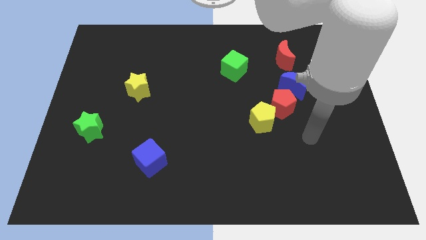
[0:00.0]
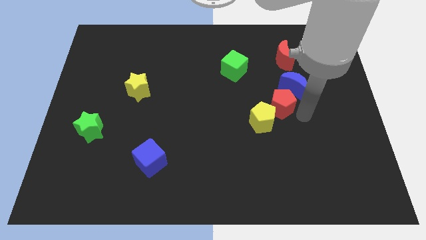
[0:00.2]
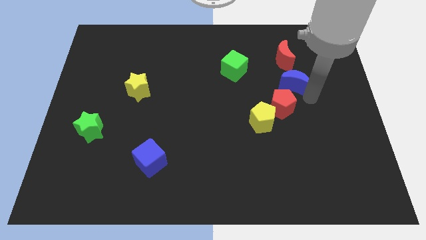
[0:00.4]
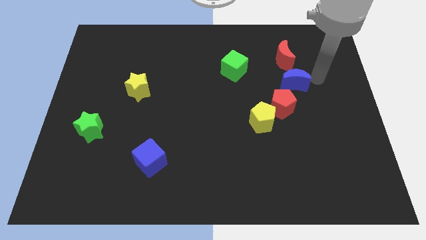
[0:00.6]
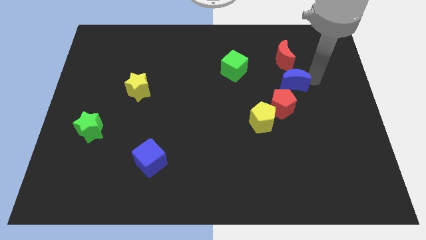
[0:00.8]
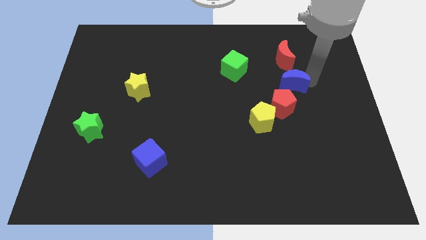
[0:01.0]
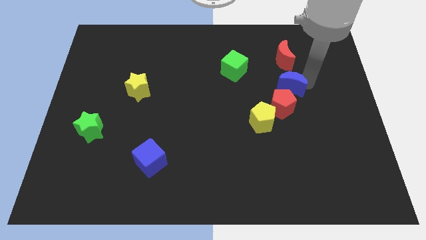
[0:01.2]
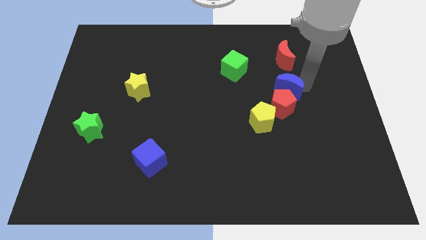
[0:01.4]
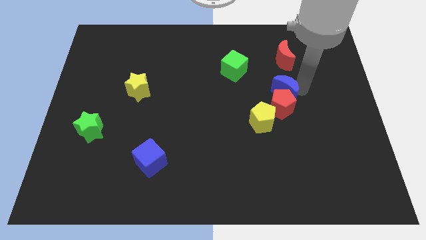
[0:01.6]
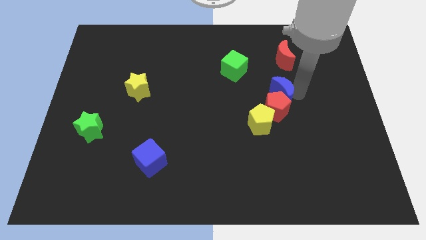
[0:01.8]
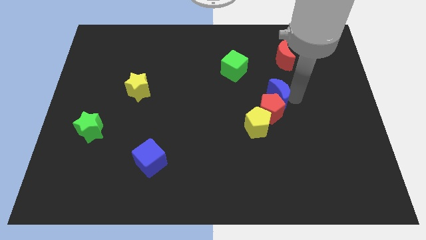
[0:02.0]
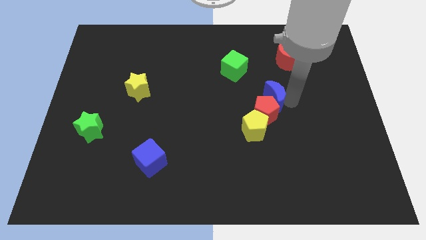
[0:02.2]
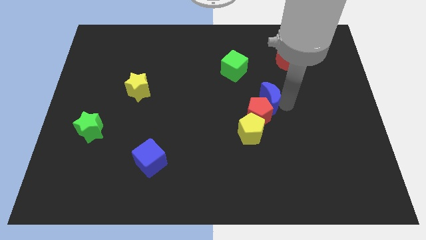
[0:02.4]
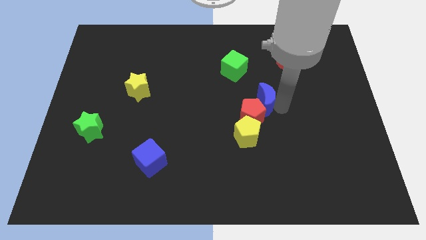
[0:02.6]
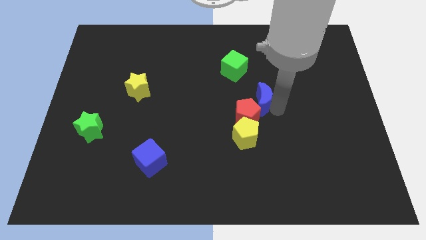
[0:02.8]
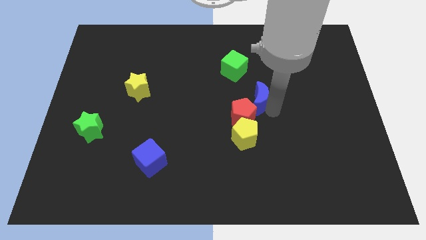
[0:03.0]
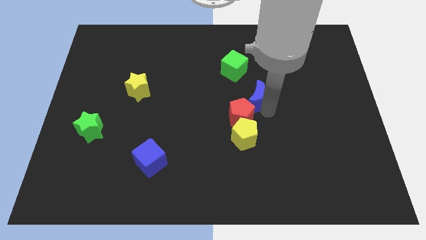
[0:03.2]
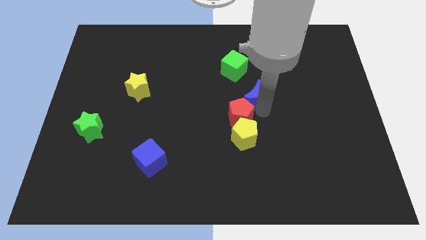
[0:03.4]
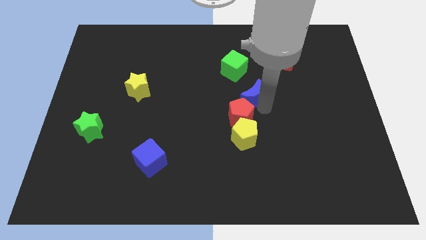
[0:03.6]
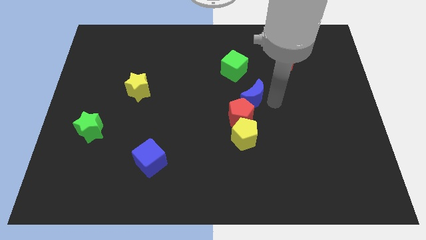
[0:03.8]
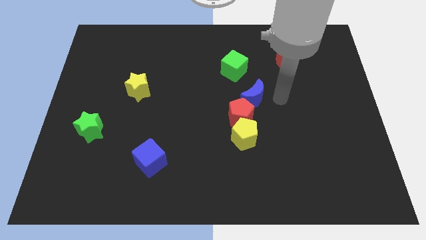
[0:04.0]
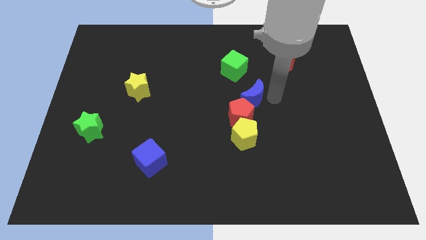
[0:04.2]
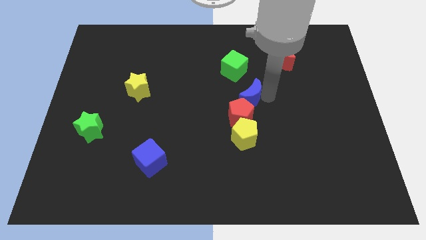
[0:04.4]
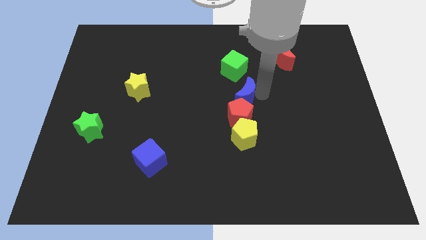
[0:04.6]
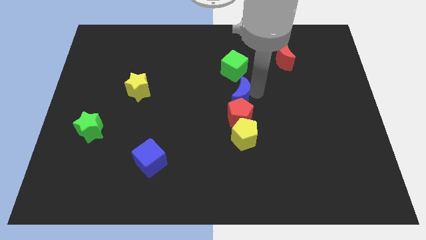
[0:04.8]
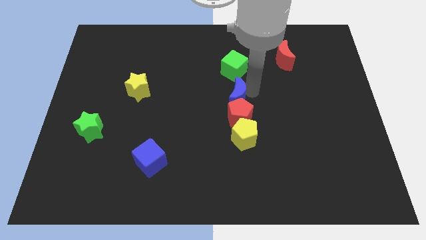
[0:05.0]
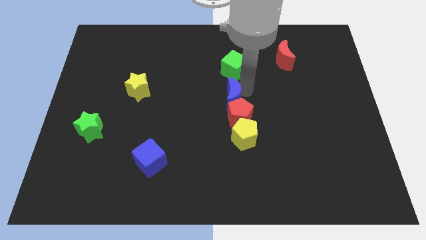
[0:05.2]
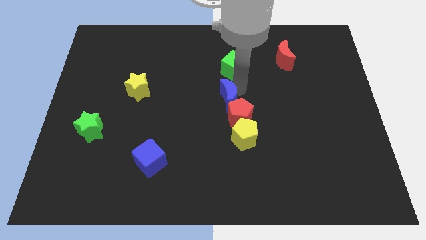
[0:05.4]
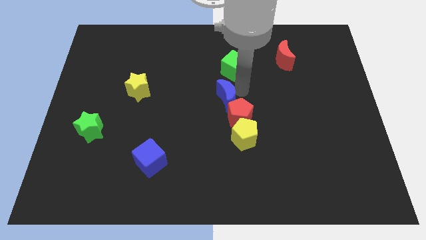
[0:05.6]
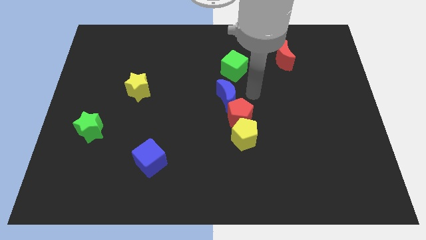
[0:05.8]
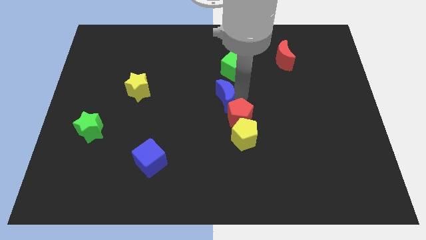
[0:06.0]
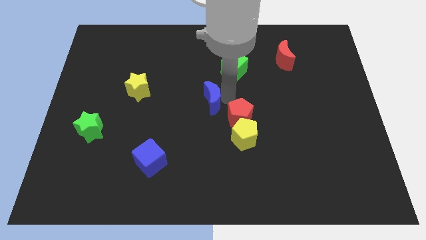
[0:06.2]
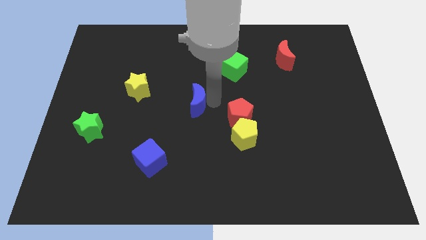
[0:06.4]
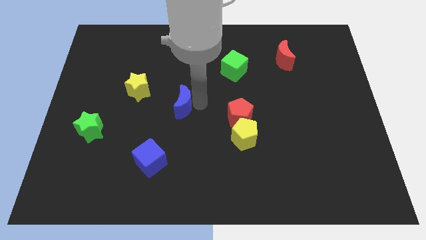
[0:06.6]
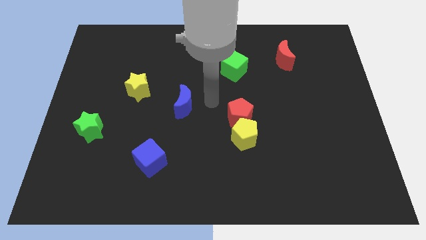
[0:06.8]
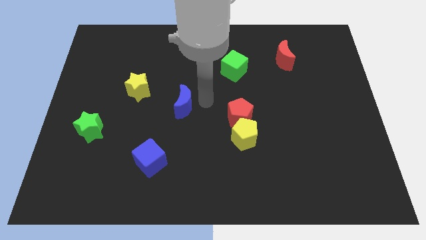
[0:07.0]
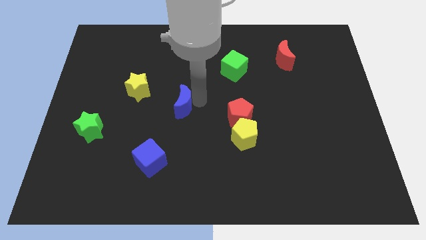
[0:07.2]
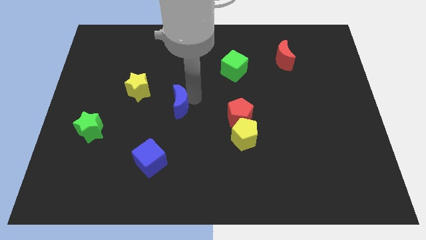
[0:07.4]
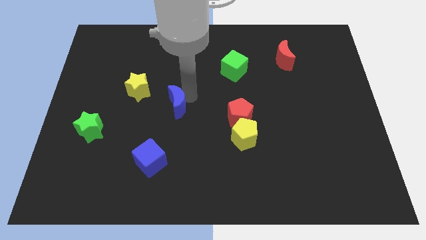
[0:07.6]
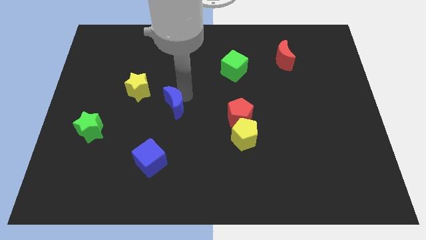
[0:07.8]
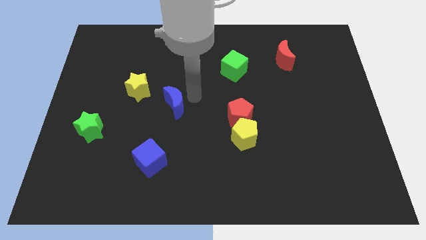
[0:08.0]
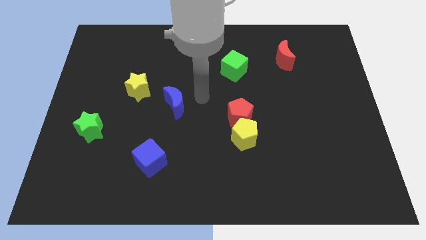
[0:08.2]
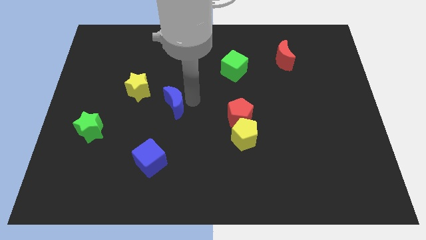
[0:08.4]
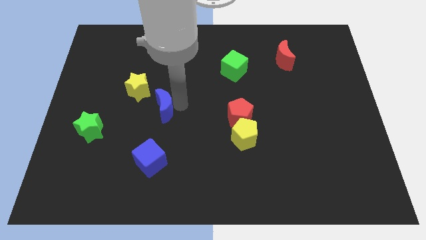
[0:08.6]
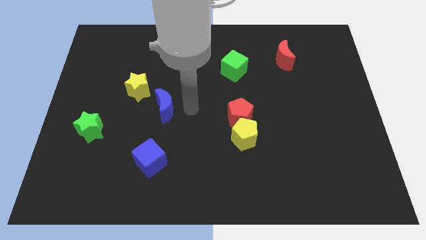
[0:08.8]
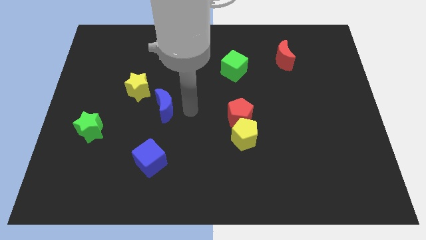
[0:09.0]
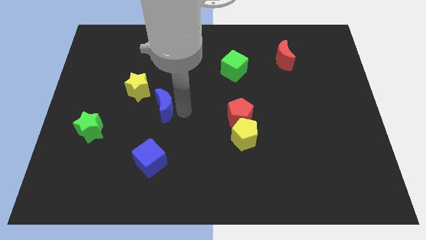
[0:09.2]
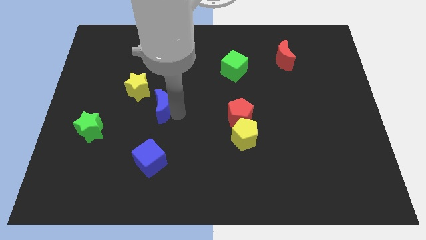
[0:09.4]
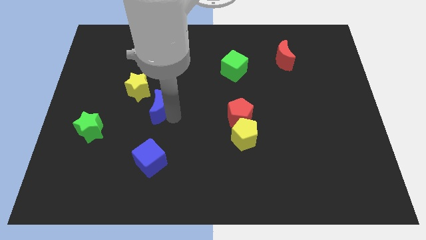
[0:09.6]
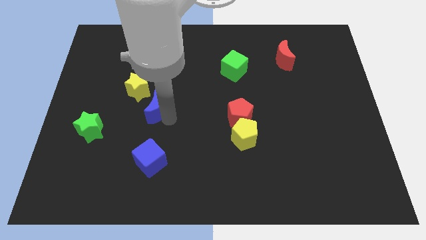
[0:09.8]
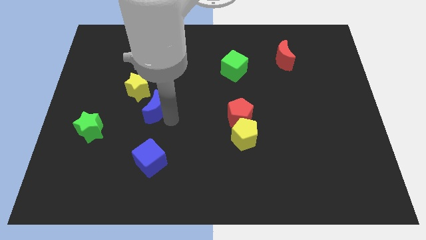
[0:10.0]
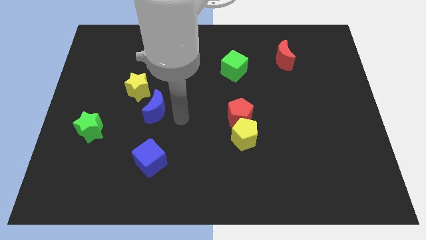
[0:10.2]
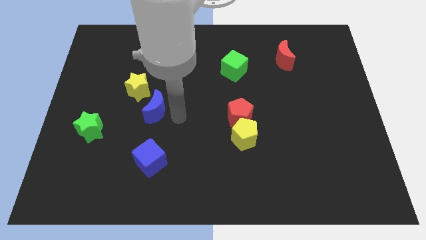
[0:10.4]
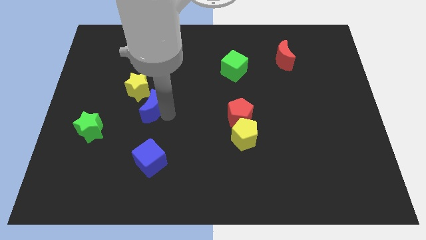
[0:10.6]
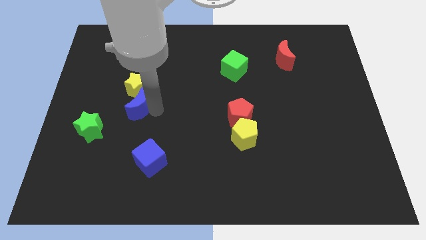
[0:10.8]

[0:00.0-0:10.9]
move the blue moon to the top right of the green star

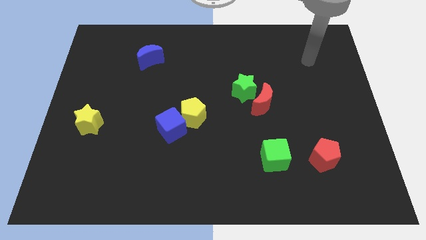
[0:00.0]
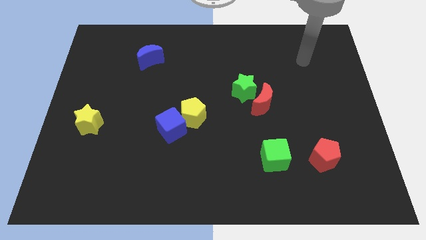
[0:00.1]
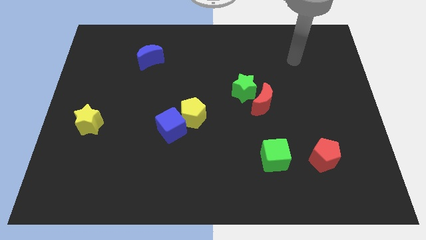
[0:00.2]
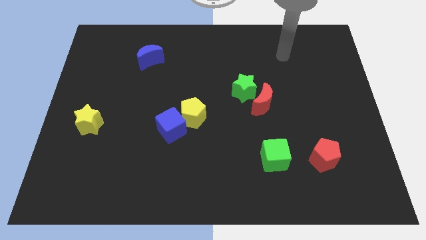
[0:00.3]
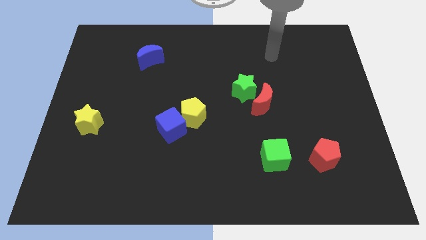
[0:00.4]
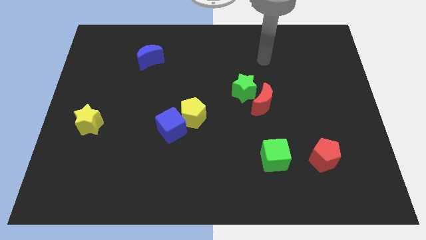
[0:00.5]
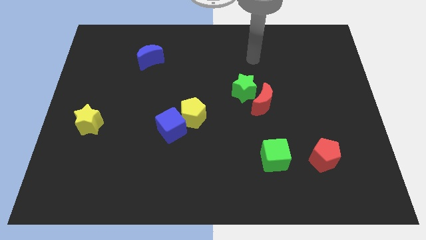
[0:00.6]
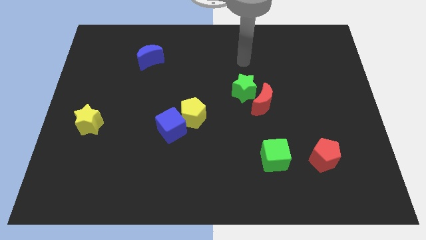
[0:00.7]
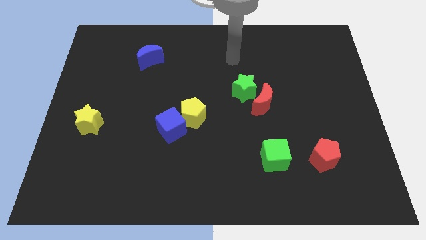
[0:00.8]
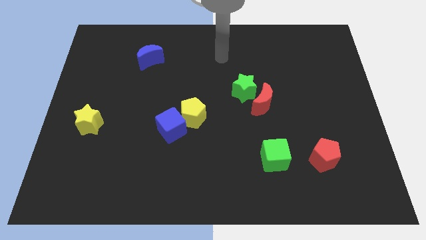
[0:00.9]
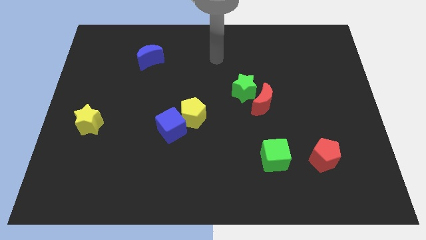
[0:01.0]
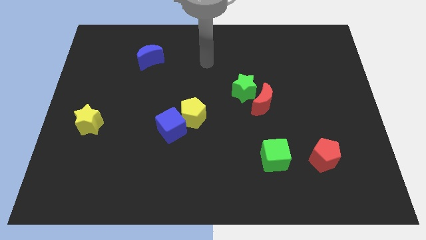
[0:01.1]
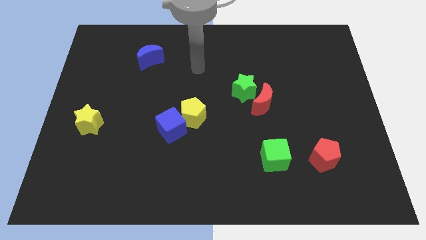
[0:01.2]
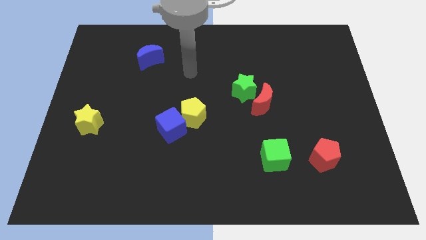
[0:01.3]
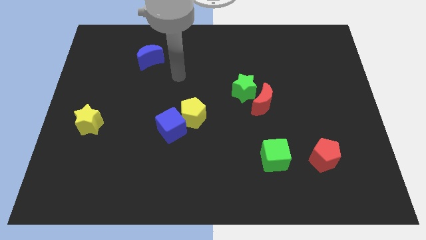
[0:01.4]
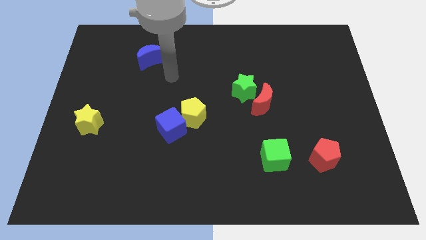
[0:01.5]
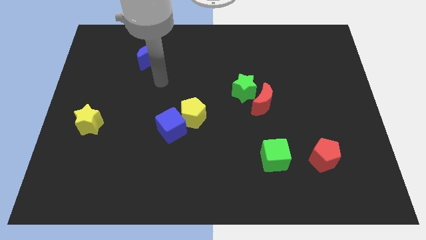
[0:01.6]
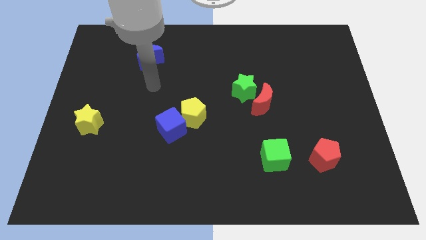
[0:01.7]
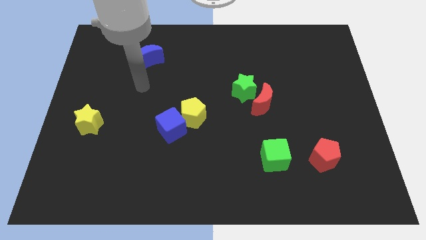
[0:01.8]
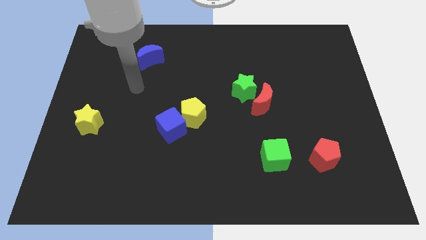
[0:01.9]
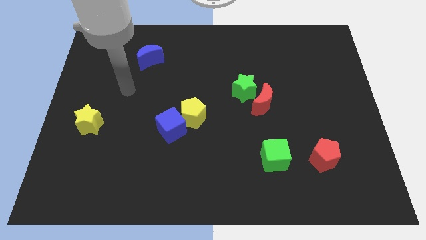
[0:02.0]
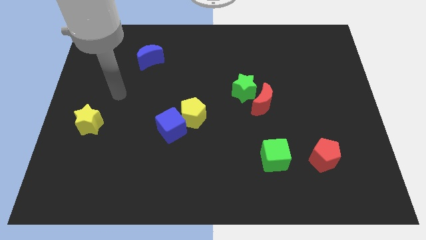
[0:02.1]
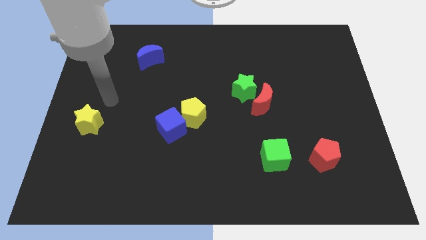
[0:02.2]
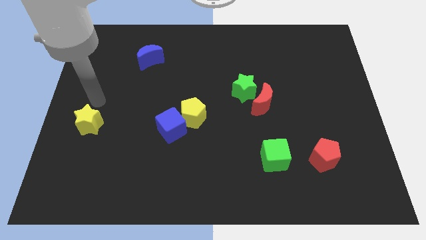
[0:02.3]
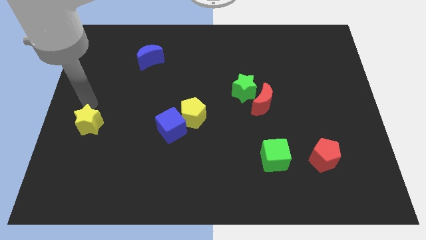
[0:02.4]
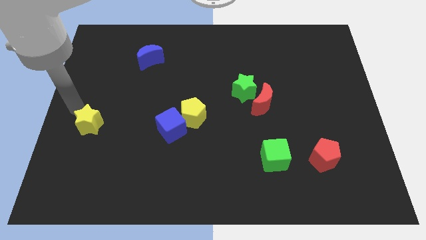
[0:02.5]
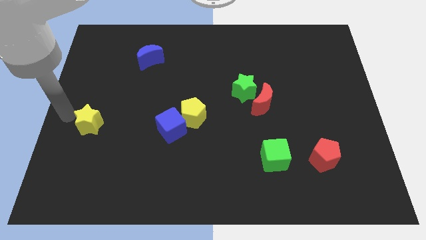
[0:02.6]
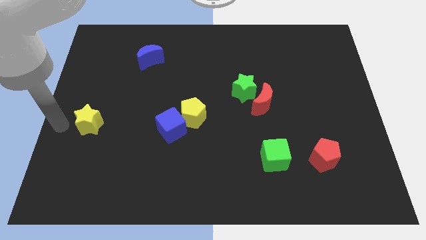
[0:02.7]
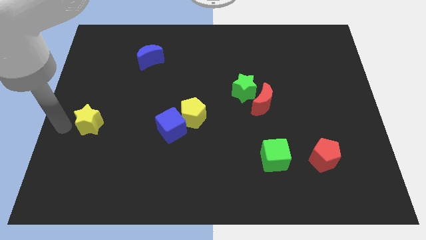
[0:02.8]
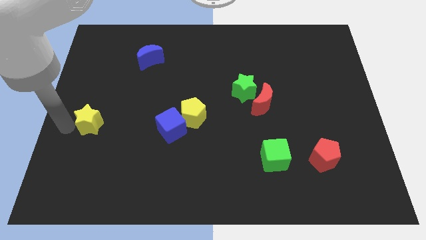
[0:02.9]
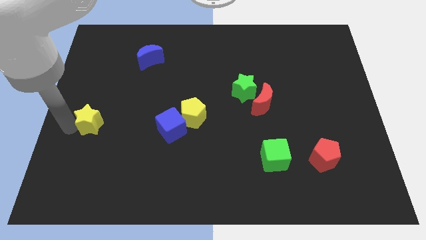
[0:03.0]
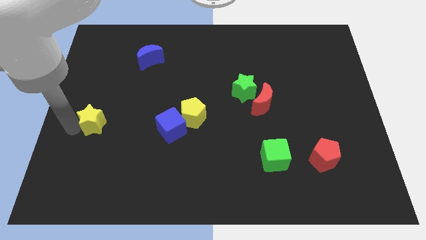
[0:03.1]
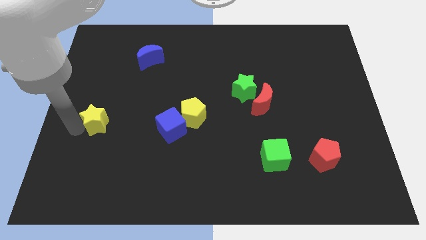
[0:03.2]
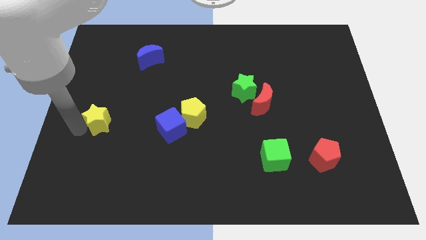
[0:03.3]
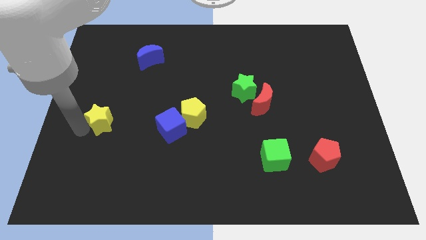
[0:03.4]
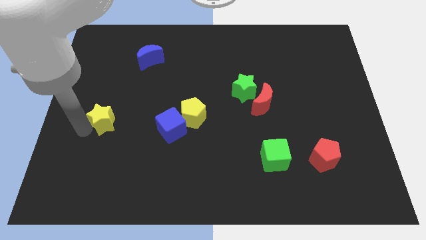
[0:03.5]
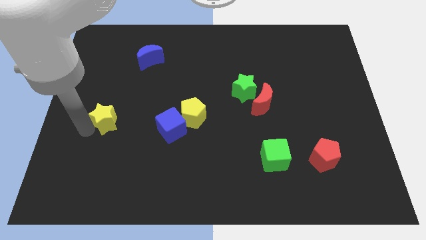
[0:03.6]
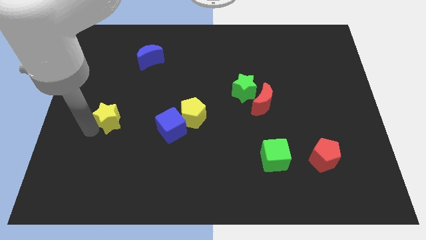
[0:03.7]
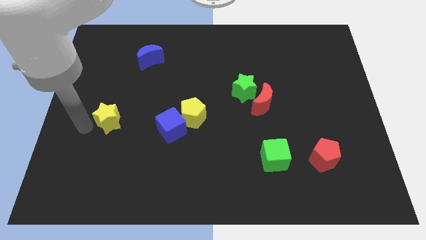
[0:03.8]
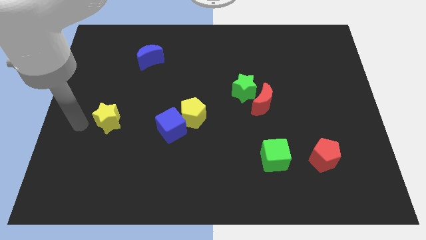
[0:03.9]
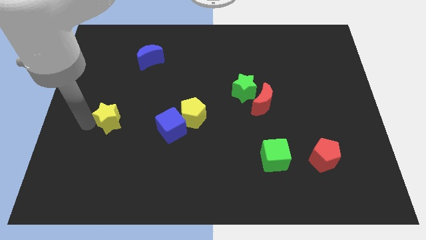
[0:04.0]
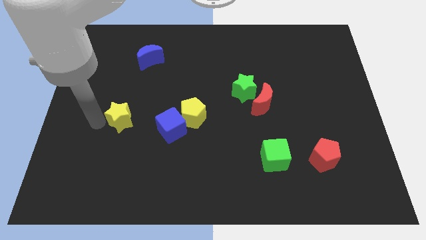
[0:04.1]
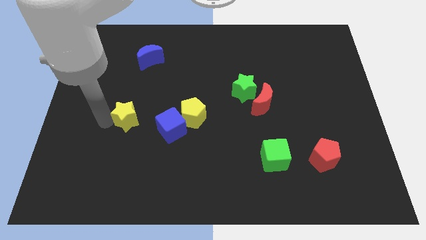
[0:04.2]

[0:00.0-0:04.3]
put the yellow star to the left of the yellow pentagon
